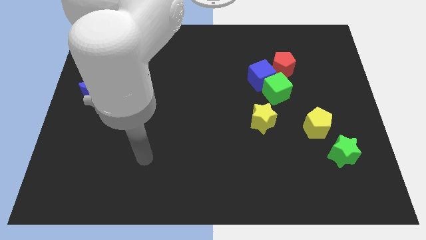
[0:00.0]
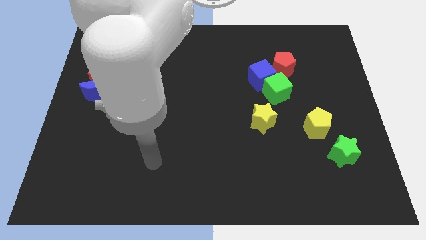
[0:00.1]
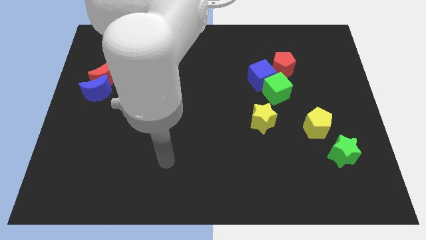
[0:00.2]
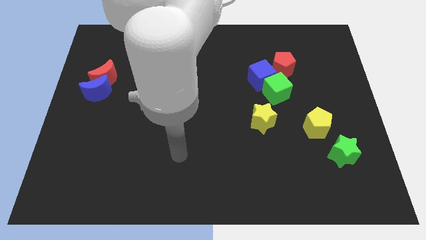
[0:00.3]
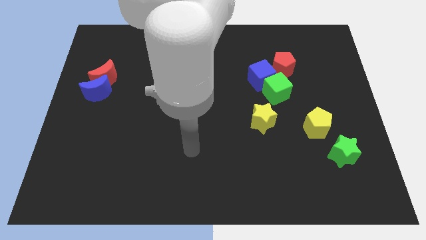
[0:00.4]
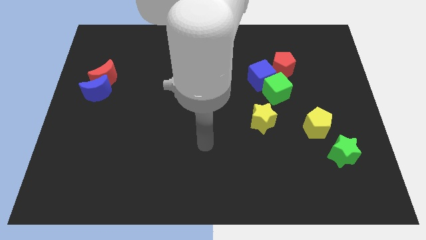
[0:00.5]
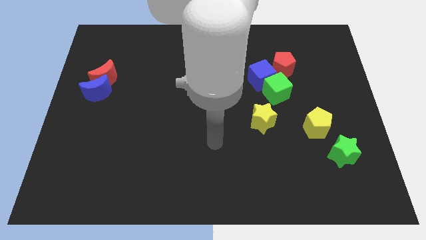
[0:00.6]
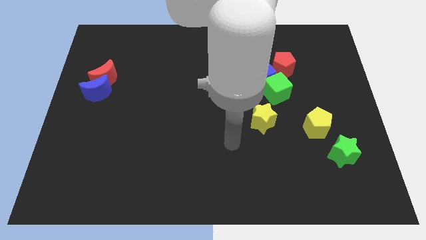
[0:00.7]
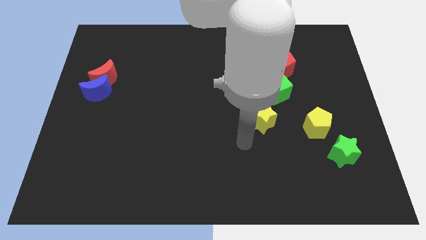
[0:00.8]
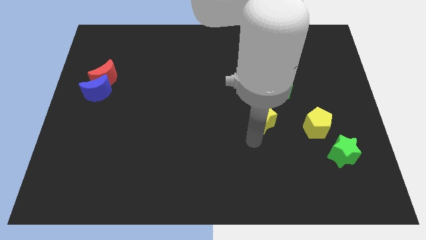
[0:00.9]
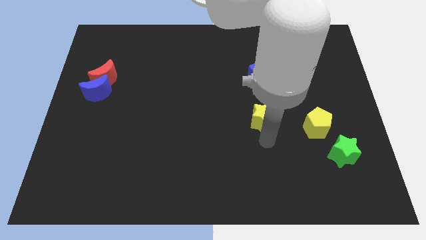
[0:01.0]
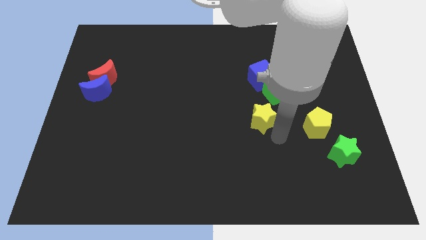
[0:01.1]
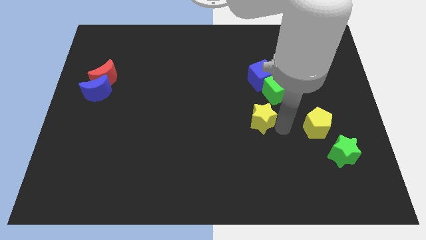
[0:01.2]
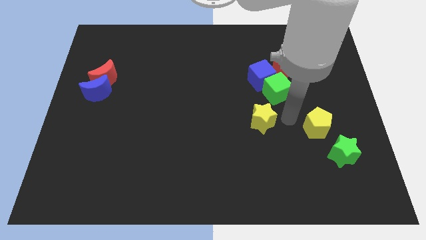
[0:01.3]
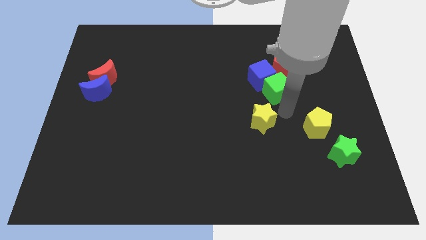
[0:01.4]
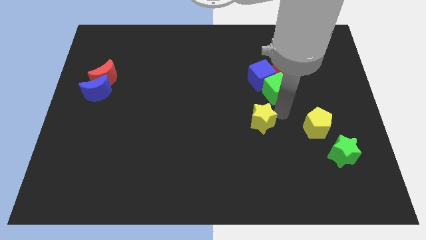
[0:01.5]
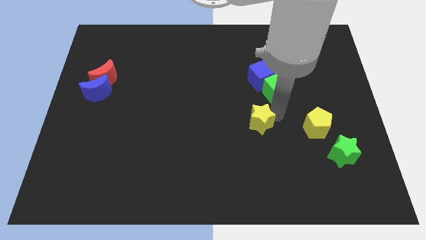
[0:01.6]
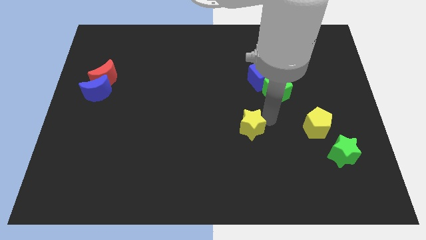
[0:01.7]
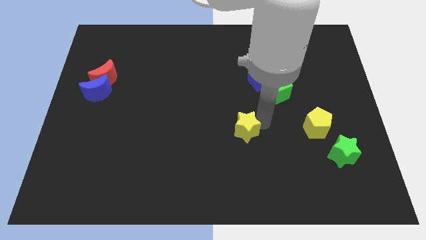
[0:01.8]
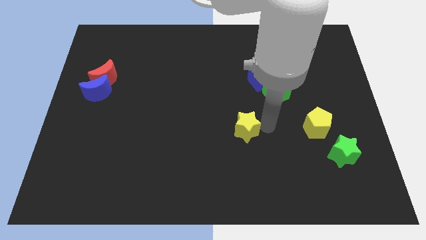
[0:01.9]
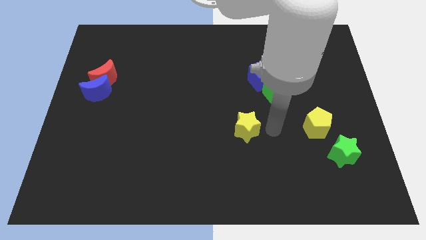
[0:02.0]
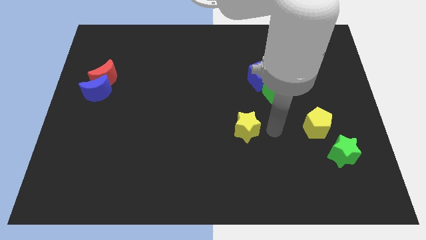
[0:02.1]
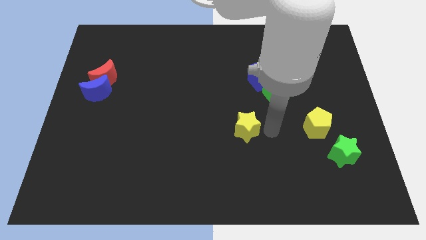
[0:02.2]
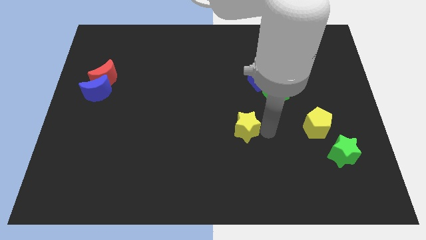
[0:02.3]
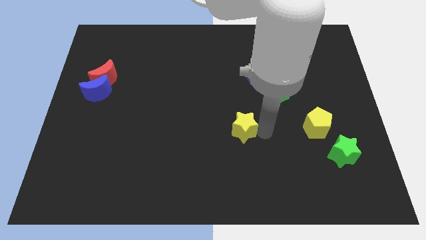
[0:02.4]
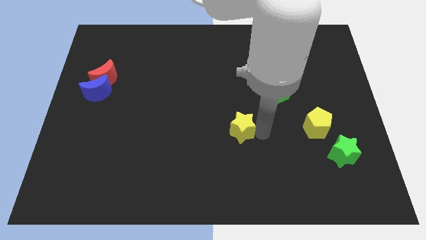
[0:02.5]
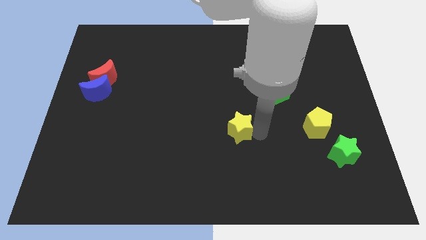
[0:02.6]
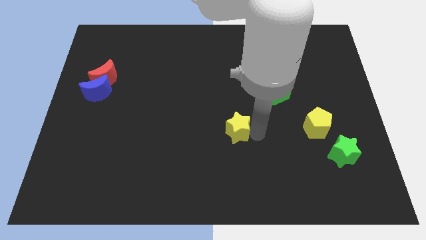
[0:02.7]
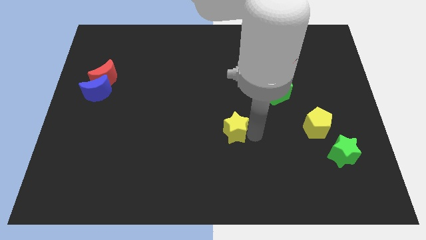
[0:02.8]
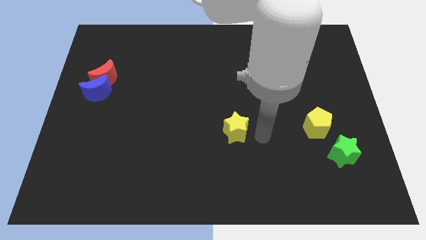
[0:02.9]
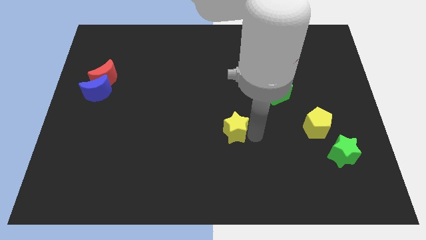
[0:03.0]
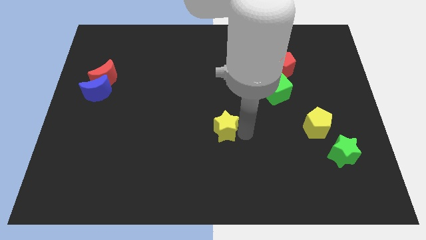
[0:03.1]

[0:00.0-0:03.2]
move the yellow star slightly left

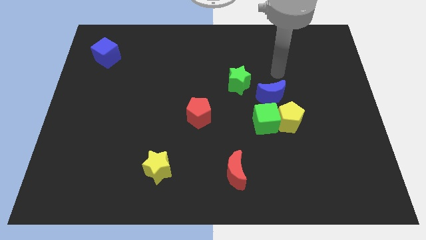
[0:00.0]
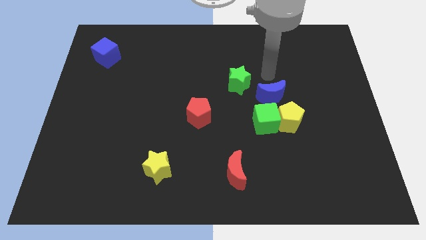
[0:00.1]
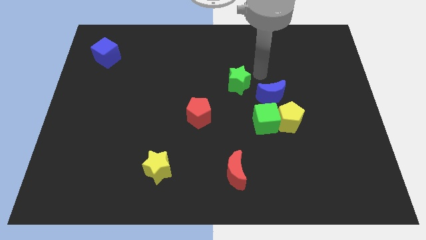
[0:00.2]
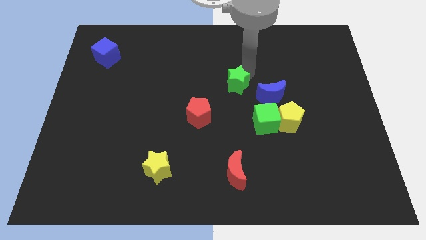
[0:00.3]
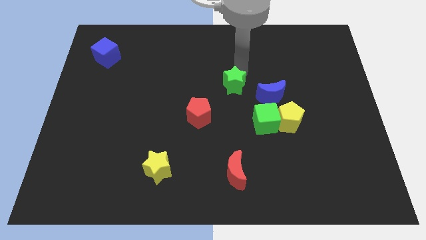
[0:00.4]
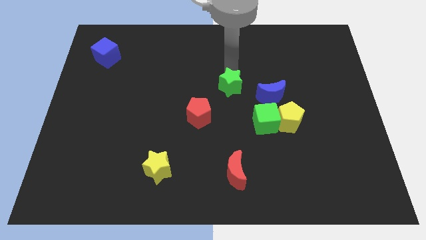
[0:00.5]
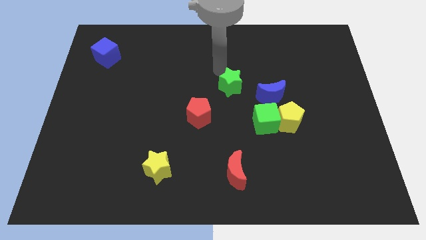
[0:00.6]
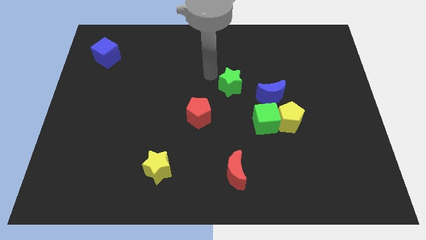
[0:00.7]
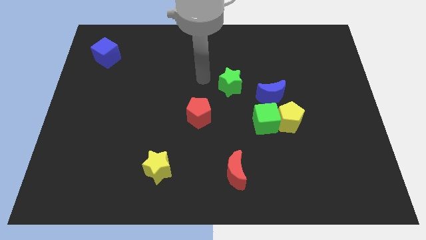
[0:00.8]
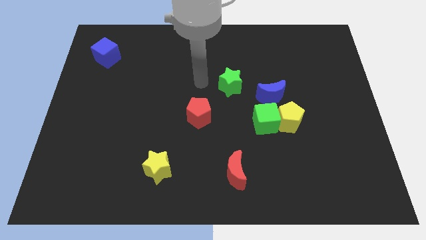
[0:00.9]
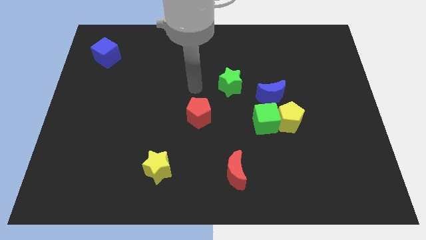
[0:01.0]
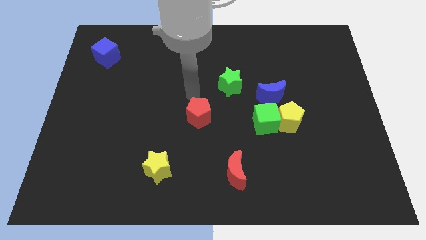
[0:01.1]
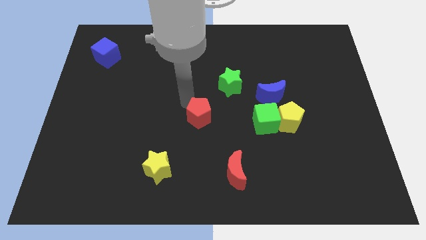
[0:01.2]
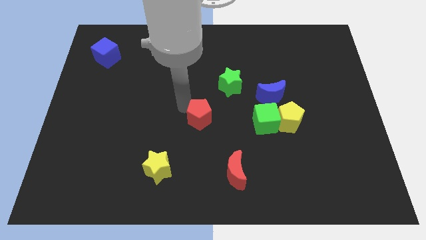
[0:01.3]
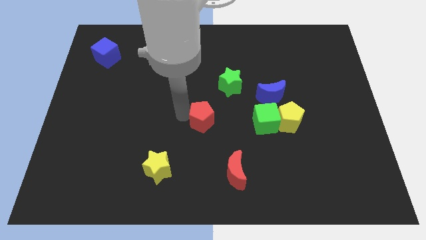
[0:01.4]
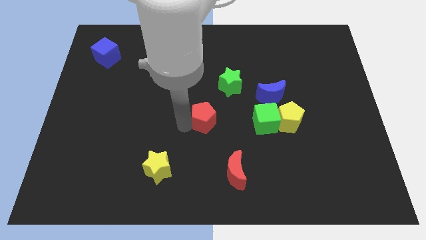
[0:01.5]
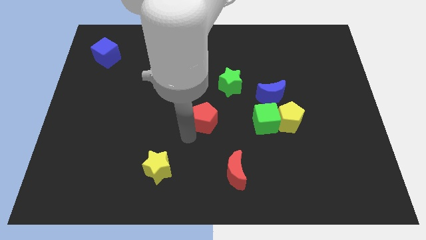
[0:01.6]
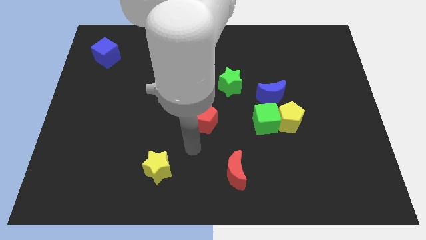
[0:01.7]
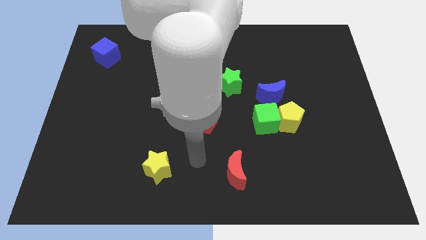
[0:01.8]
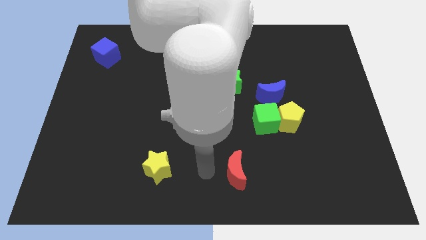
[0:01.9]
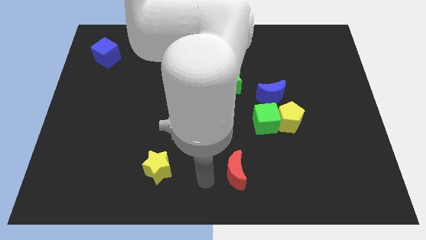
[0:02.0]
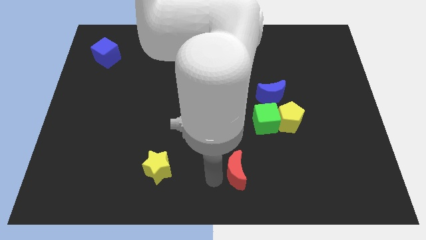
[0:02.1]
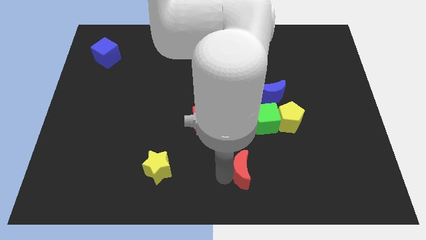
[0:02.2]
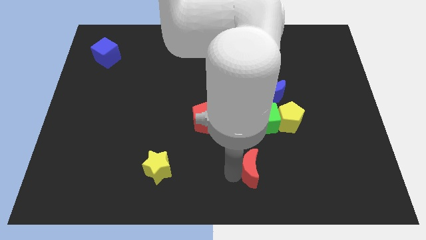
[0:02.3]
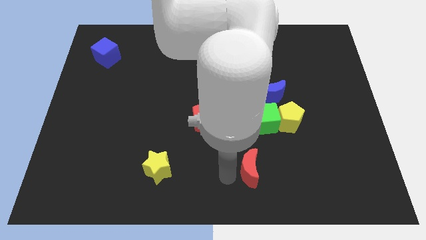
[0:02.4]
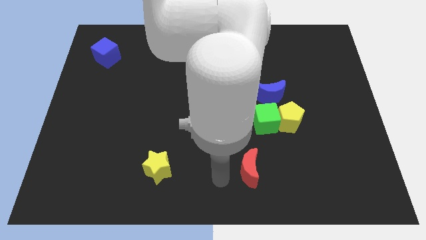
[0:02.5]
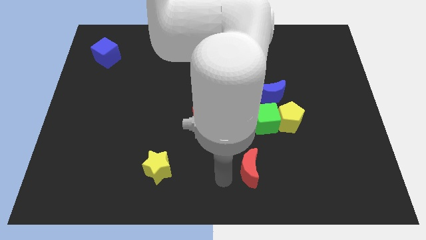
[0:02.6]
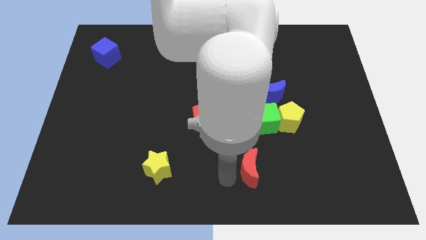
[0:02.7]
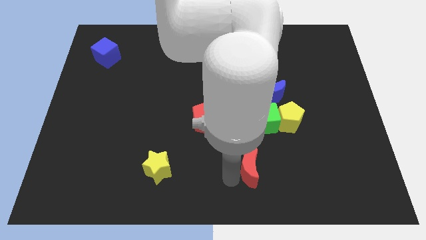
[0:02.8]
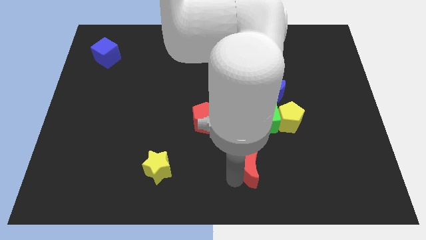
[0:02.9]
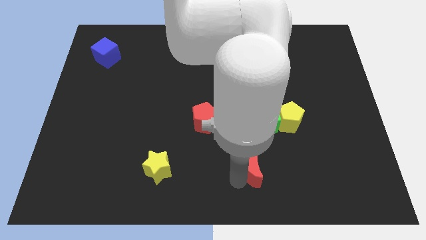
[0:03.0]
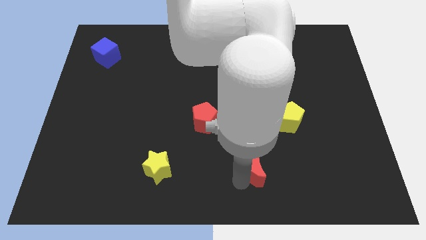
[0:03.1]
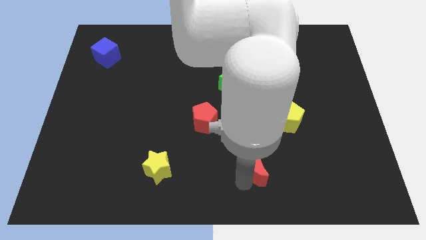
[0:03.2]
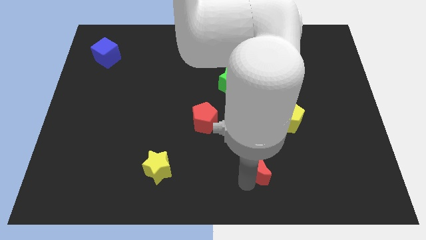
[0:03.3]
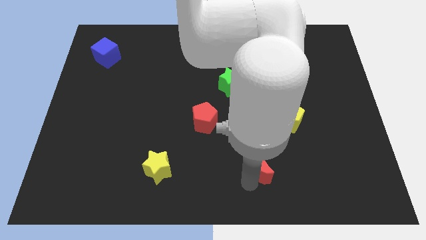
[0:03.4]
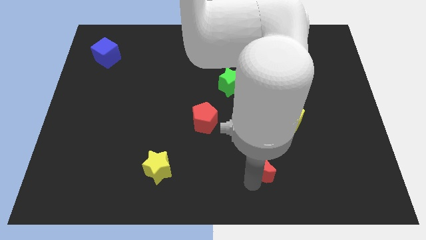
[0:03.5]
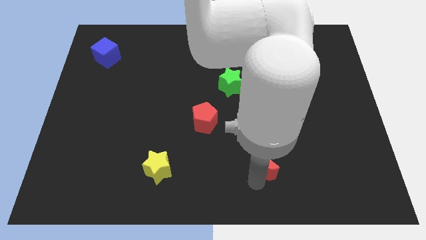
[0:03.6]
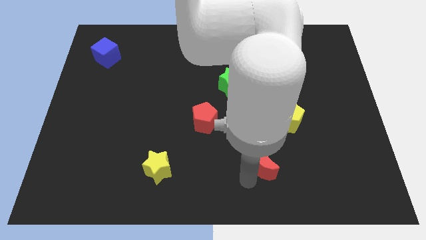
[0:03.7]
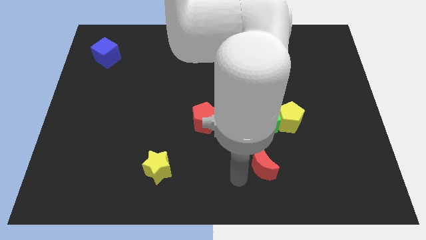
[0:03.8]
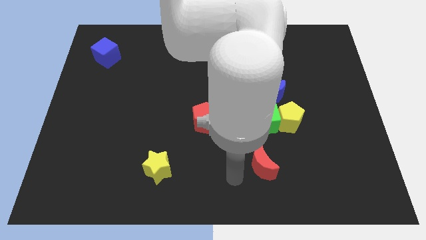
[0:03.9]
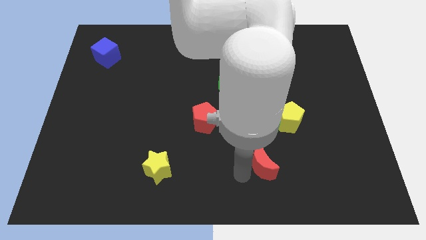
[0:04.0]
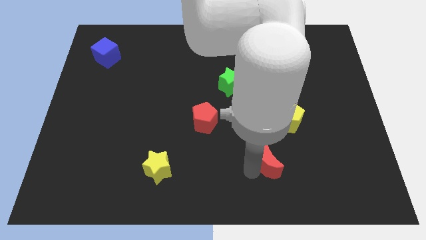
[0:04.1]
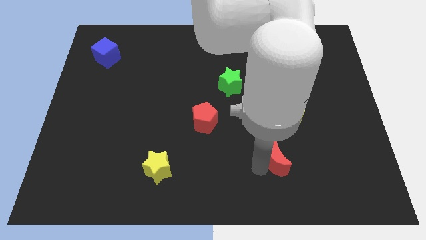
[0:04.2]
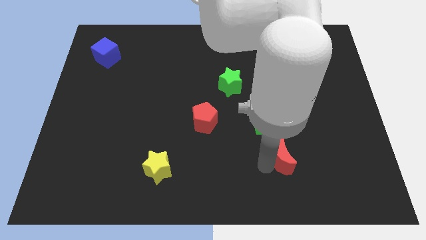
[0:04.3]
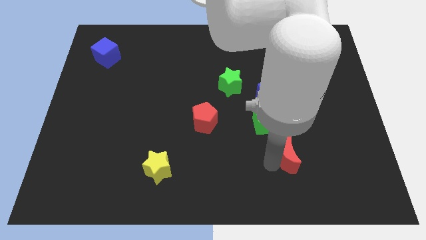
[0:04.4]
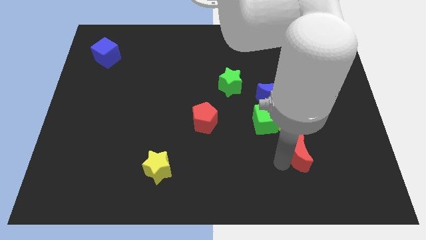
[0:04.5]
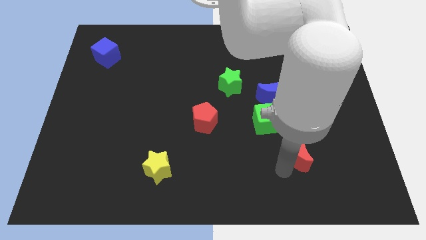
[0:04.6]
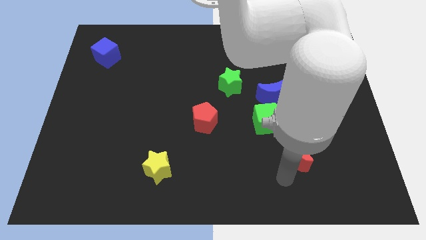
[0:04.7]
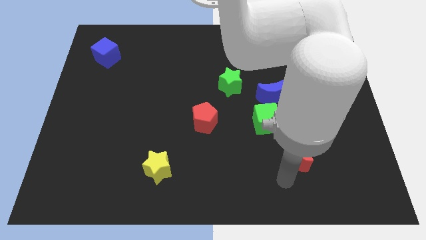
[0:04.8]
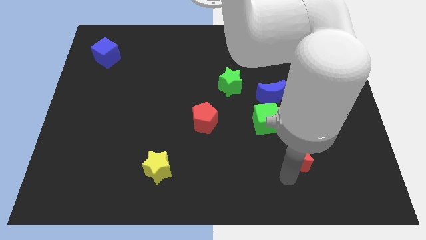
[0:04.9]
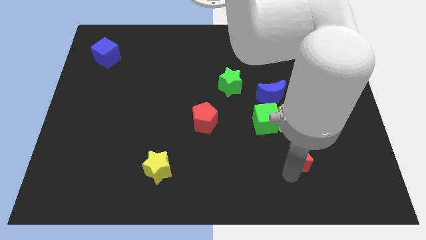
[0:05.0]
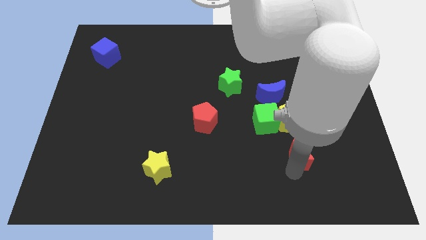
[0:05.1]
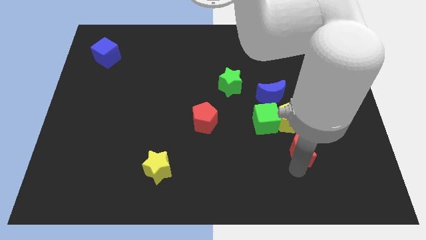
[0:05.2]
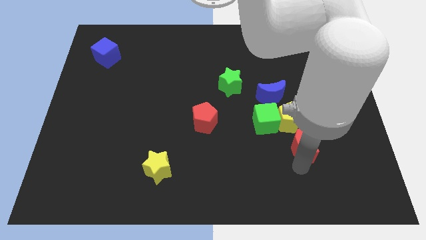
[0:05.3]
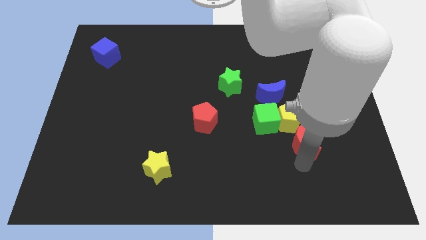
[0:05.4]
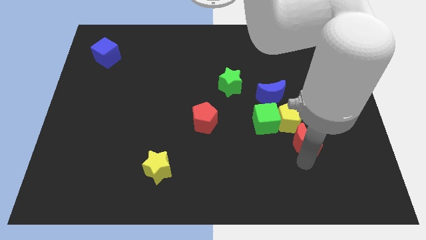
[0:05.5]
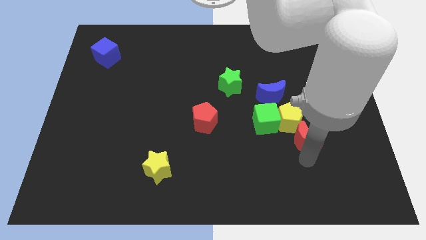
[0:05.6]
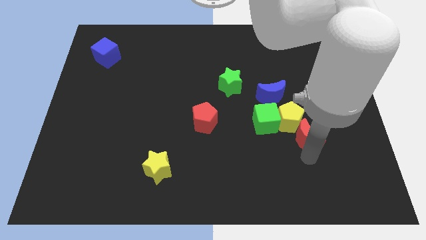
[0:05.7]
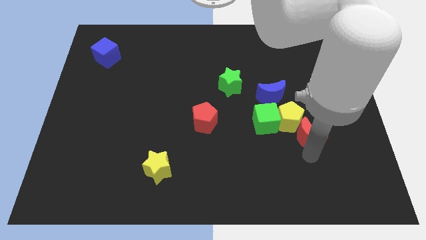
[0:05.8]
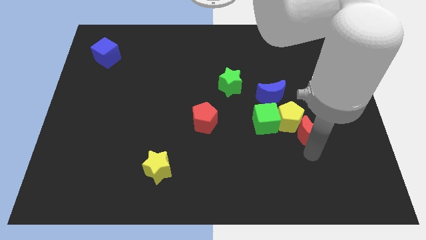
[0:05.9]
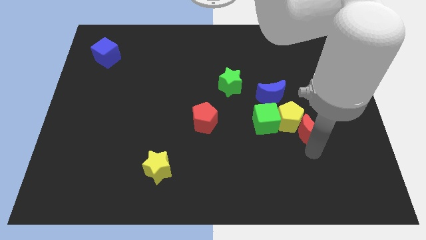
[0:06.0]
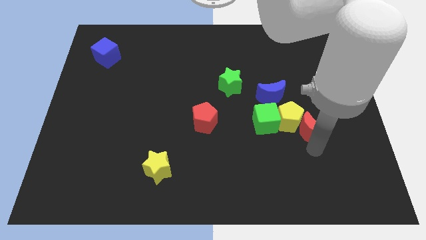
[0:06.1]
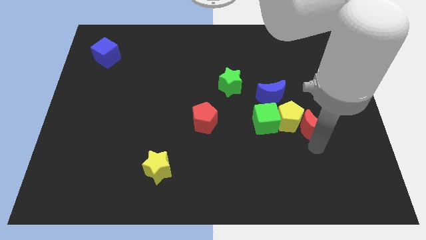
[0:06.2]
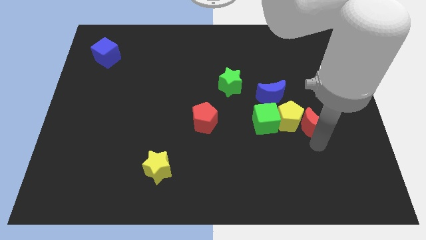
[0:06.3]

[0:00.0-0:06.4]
push the red moon up and to the right diagonally
